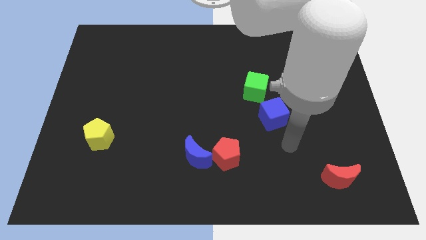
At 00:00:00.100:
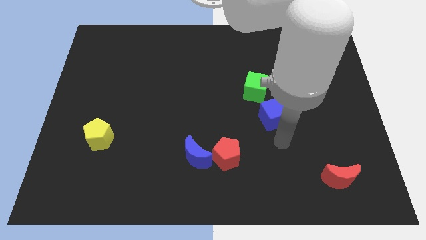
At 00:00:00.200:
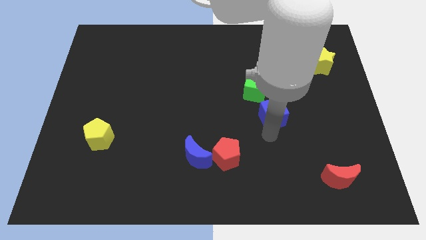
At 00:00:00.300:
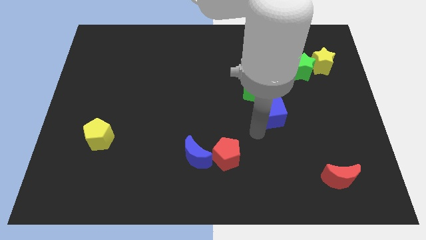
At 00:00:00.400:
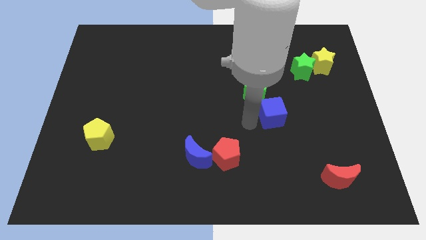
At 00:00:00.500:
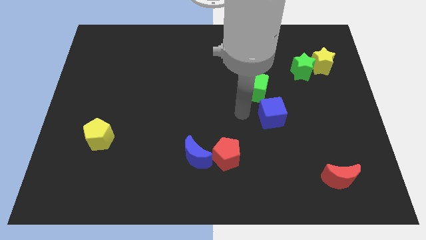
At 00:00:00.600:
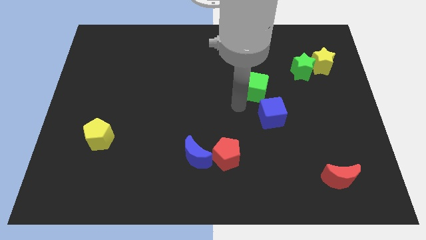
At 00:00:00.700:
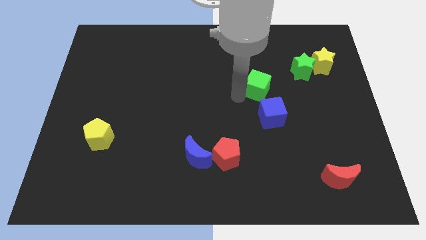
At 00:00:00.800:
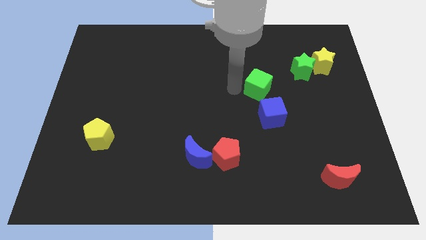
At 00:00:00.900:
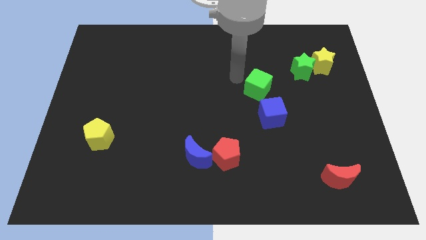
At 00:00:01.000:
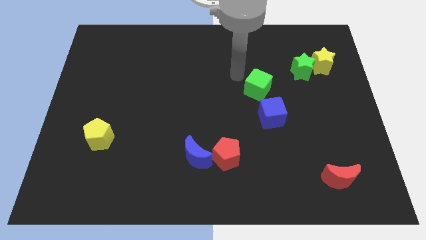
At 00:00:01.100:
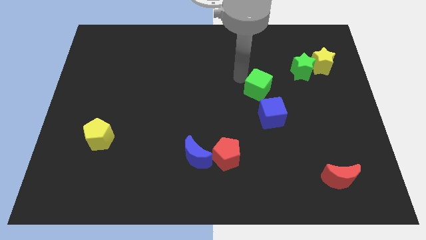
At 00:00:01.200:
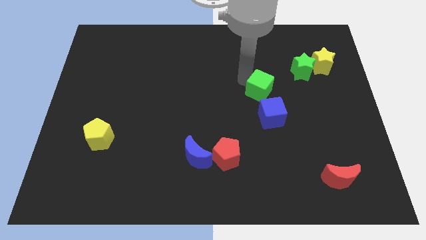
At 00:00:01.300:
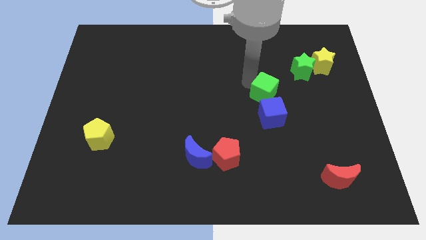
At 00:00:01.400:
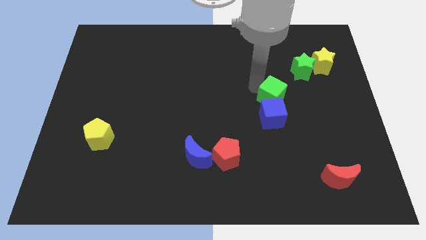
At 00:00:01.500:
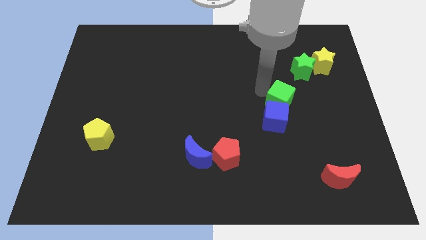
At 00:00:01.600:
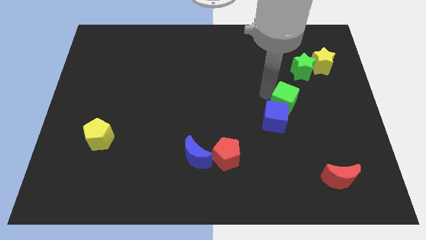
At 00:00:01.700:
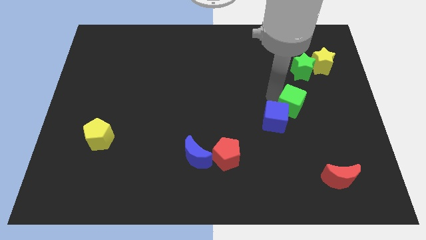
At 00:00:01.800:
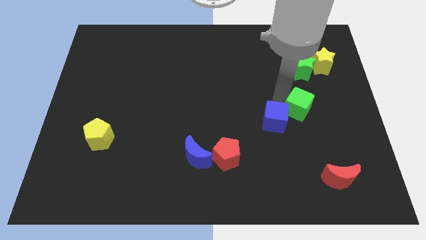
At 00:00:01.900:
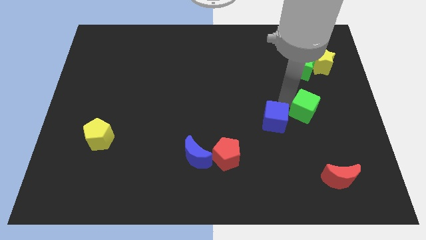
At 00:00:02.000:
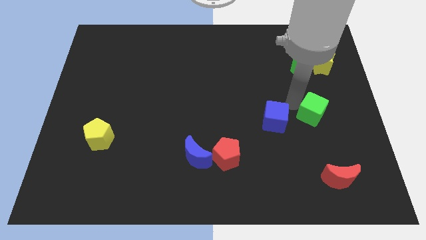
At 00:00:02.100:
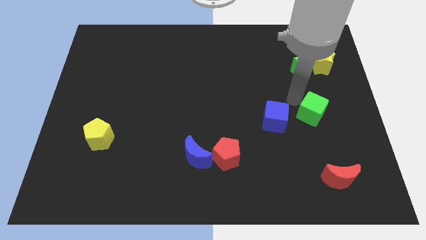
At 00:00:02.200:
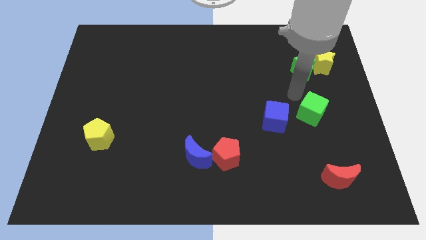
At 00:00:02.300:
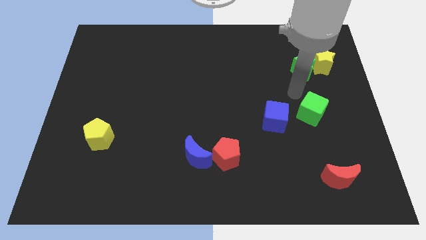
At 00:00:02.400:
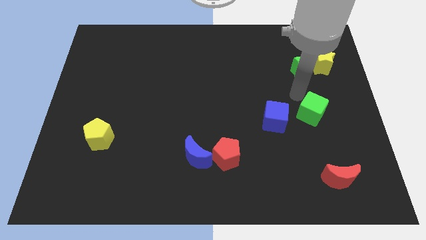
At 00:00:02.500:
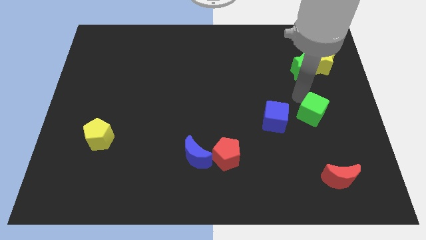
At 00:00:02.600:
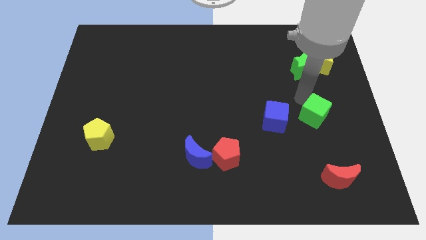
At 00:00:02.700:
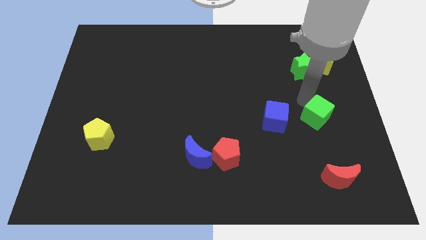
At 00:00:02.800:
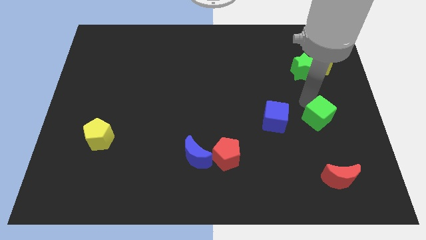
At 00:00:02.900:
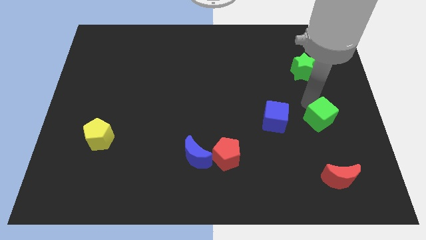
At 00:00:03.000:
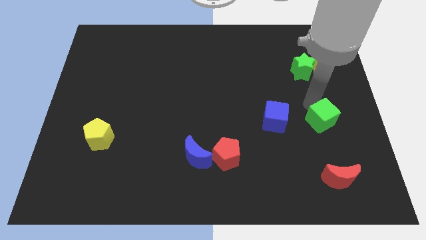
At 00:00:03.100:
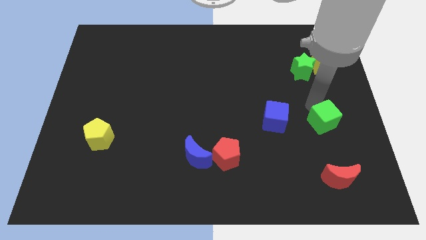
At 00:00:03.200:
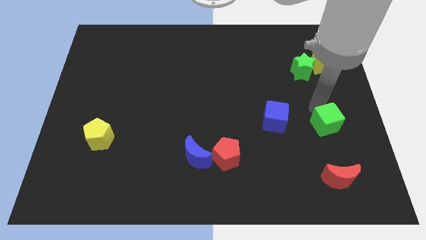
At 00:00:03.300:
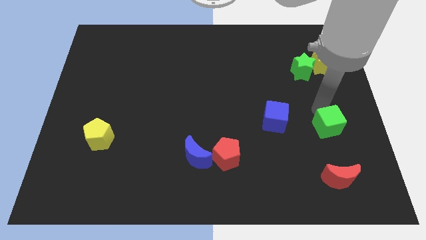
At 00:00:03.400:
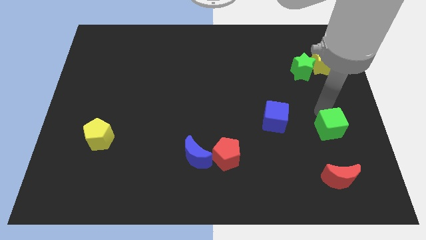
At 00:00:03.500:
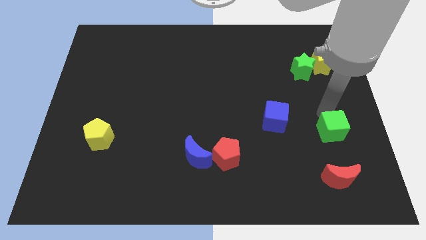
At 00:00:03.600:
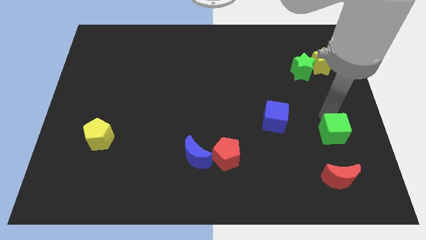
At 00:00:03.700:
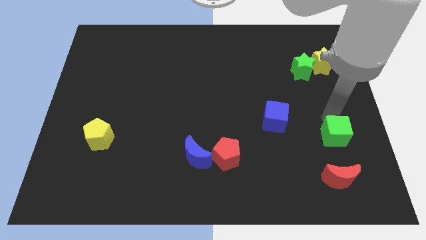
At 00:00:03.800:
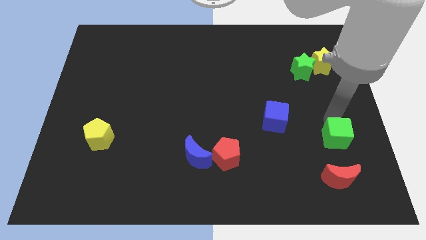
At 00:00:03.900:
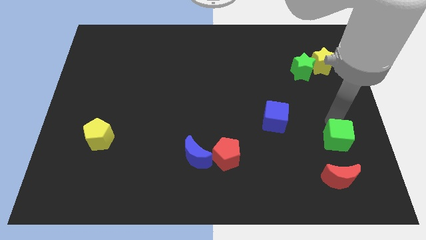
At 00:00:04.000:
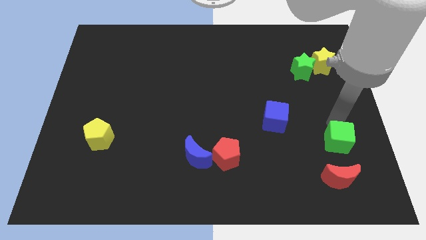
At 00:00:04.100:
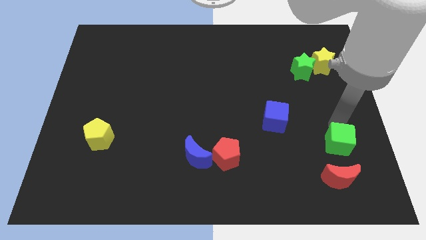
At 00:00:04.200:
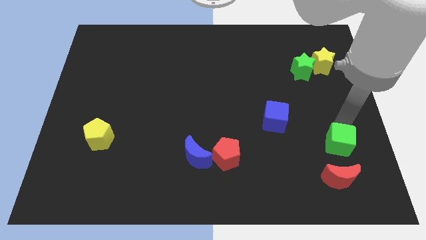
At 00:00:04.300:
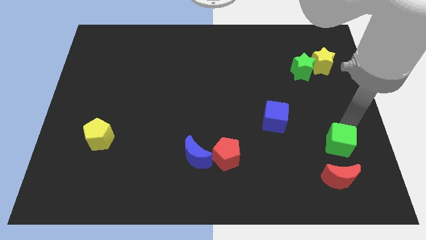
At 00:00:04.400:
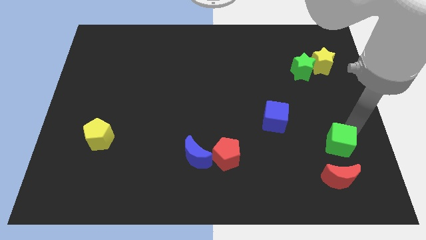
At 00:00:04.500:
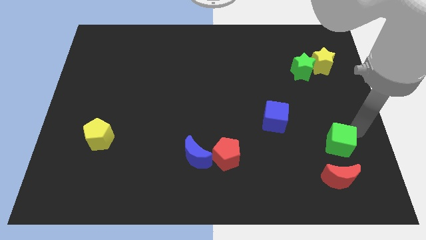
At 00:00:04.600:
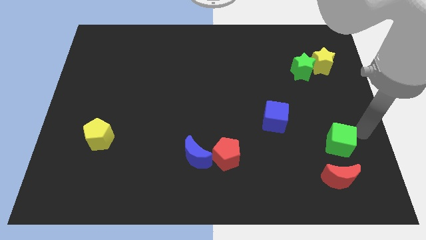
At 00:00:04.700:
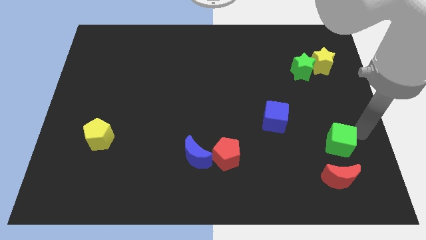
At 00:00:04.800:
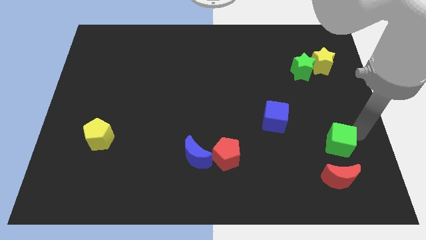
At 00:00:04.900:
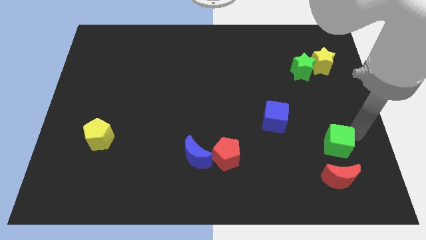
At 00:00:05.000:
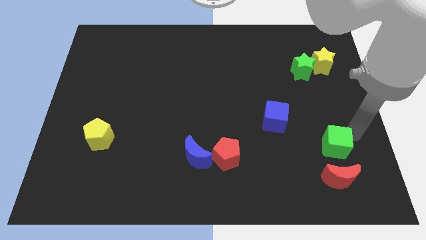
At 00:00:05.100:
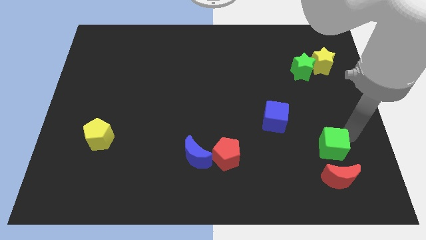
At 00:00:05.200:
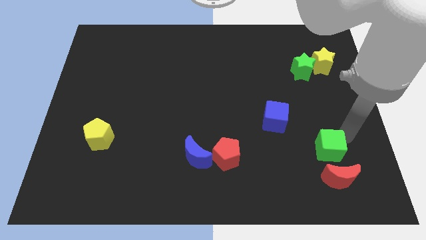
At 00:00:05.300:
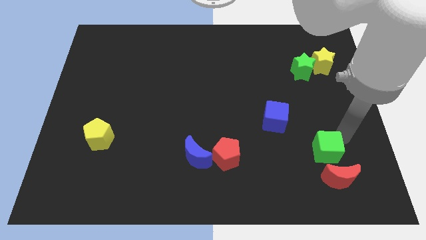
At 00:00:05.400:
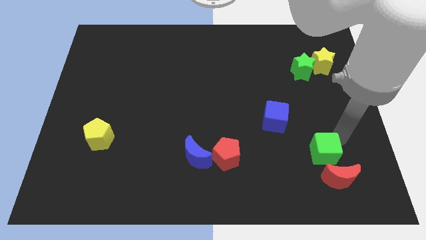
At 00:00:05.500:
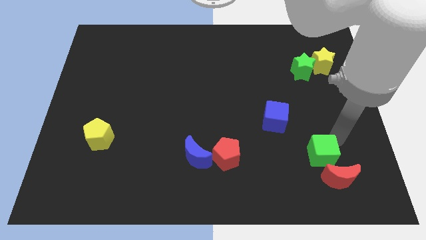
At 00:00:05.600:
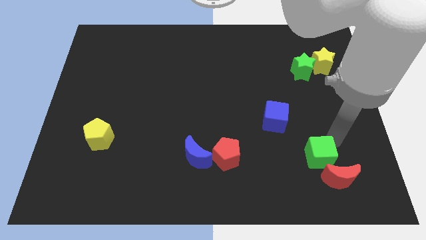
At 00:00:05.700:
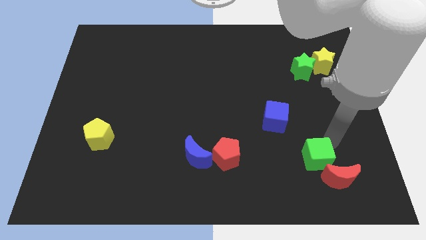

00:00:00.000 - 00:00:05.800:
push the green cube to the red moon

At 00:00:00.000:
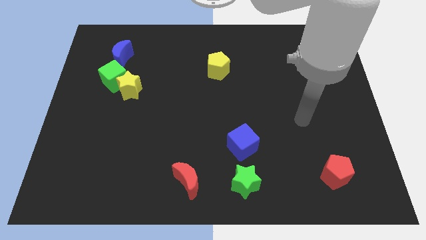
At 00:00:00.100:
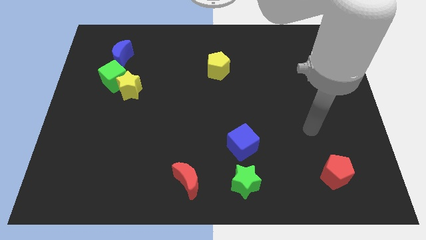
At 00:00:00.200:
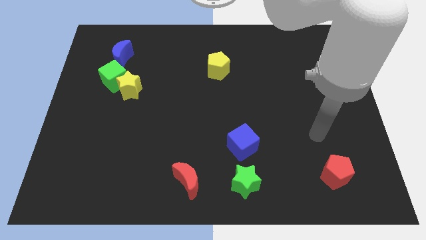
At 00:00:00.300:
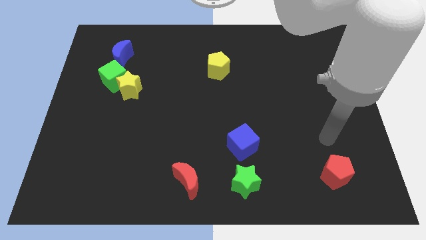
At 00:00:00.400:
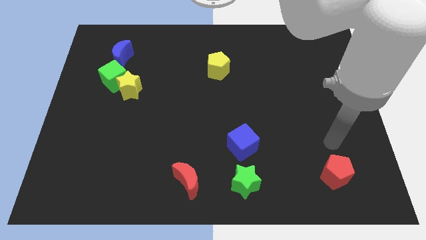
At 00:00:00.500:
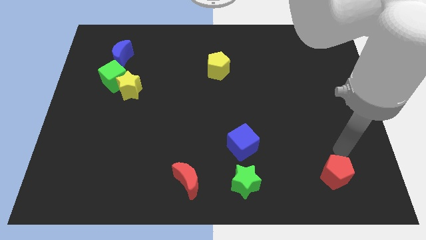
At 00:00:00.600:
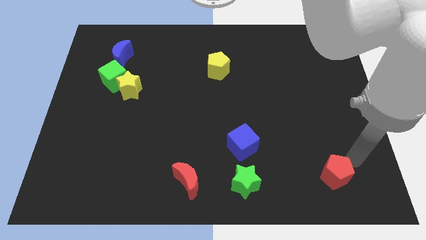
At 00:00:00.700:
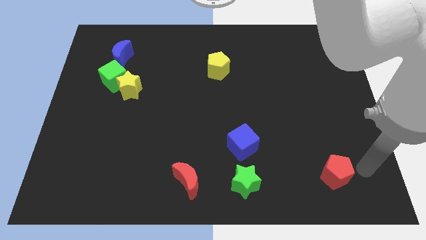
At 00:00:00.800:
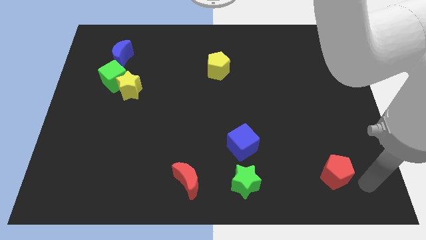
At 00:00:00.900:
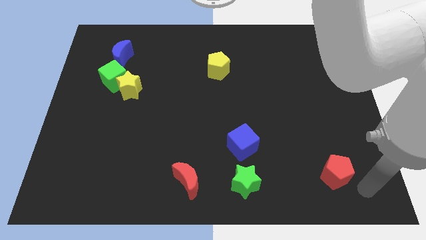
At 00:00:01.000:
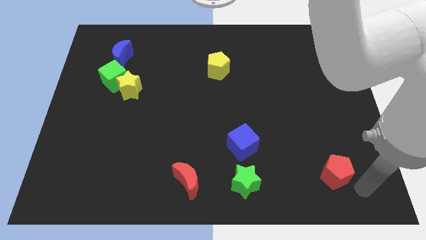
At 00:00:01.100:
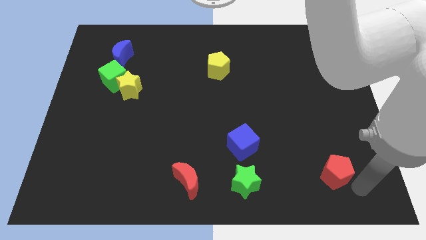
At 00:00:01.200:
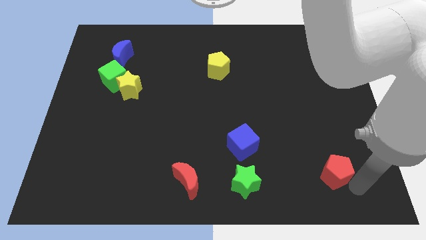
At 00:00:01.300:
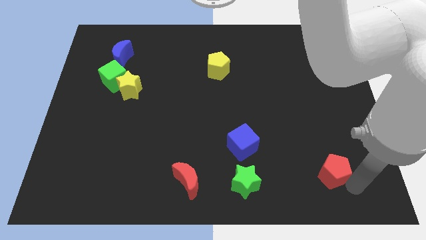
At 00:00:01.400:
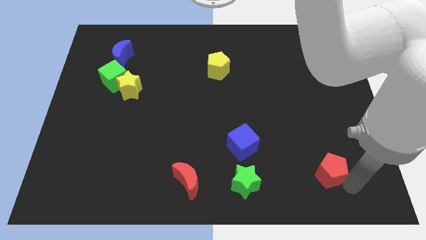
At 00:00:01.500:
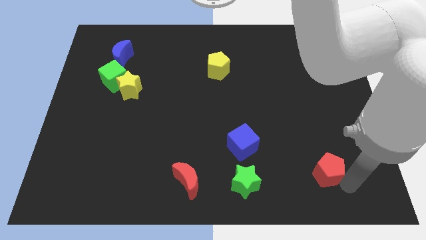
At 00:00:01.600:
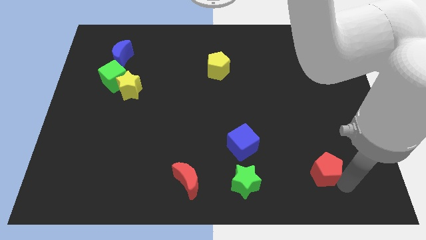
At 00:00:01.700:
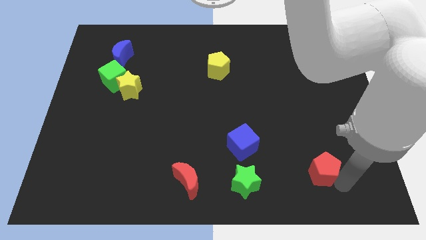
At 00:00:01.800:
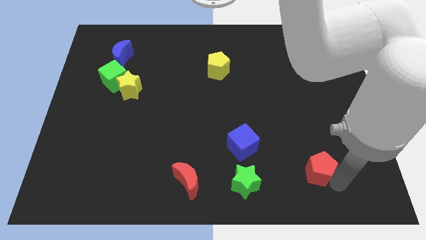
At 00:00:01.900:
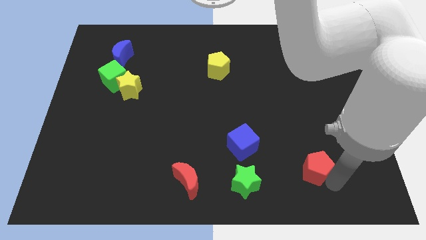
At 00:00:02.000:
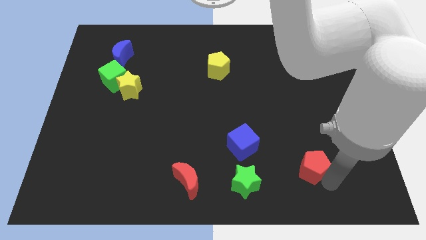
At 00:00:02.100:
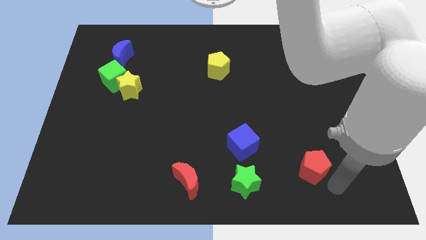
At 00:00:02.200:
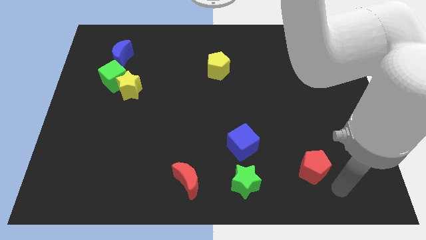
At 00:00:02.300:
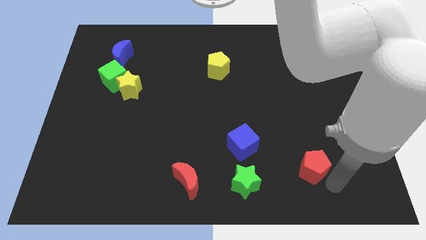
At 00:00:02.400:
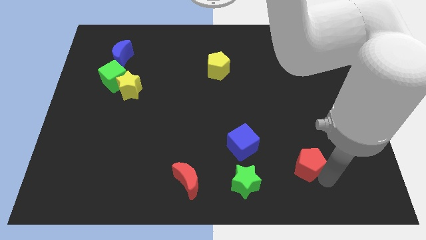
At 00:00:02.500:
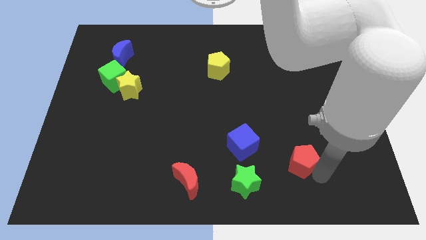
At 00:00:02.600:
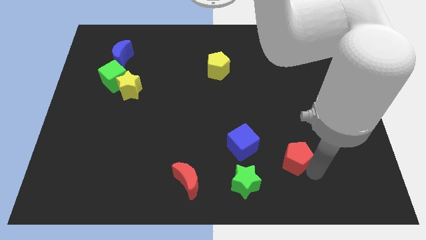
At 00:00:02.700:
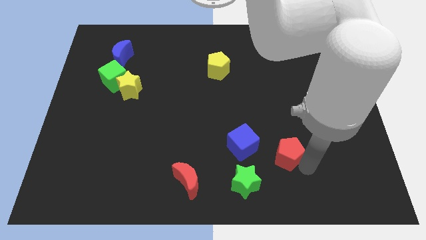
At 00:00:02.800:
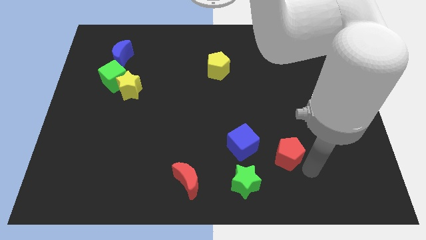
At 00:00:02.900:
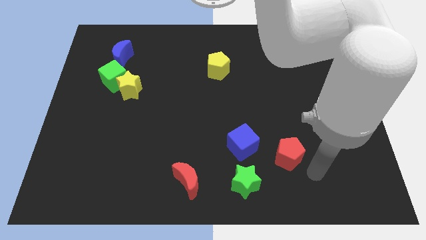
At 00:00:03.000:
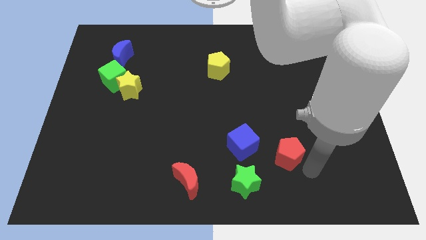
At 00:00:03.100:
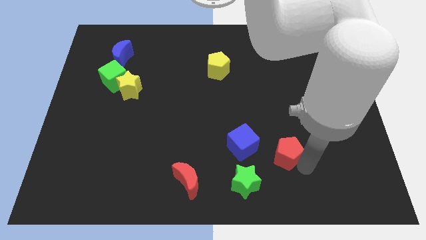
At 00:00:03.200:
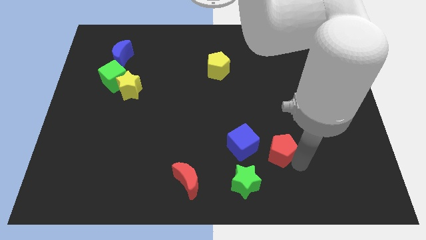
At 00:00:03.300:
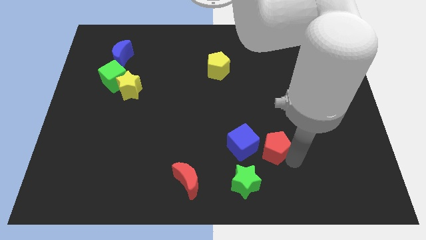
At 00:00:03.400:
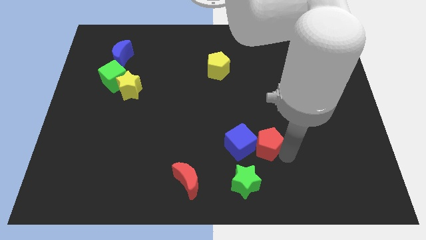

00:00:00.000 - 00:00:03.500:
slide the red pentagon towards the blue cube
